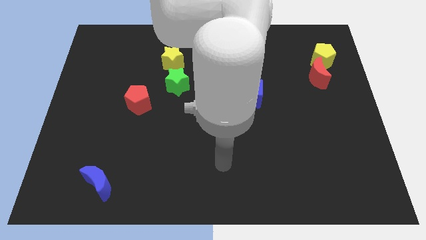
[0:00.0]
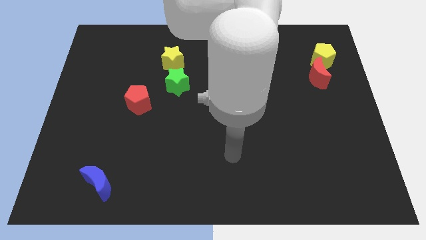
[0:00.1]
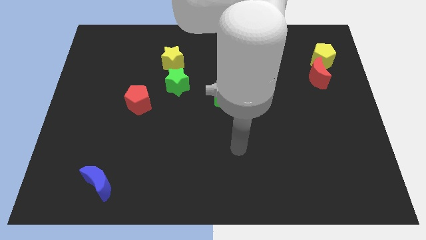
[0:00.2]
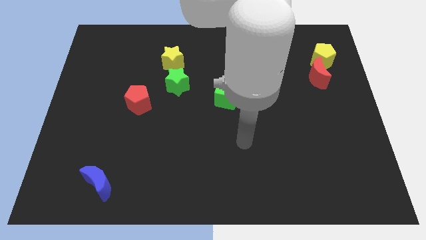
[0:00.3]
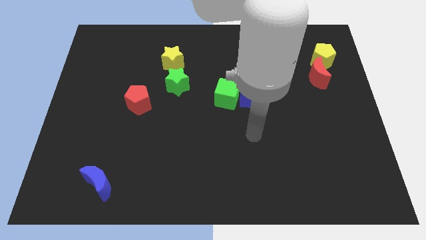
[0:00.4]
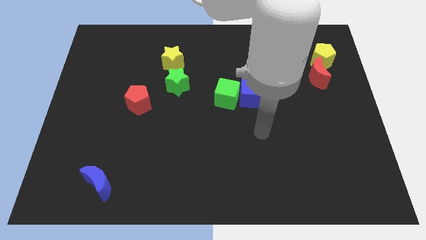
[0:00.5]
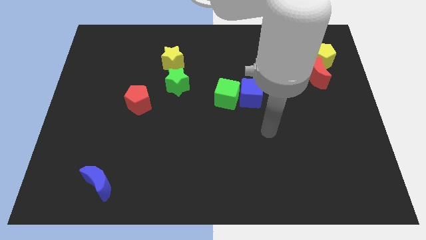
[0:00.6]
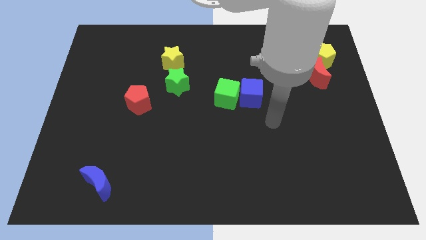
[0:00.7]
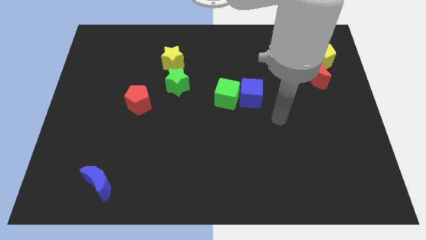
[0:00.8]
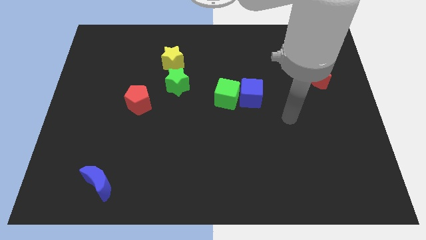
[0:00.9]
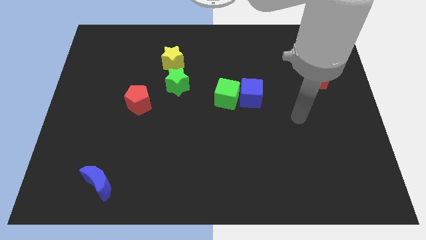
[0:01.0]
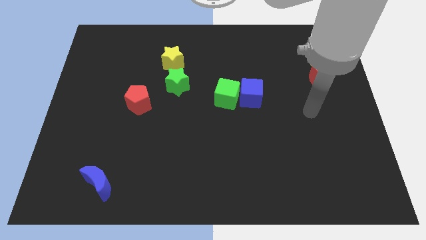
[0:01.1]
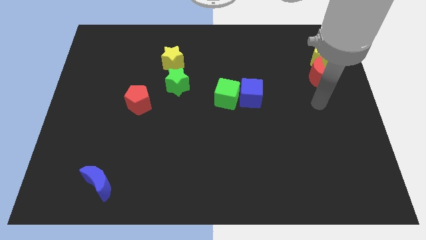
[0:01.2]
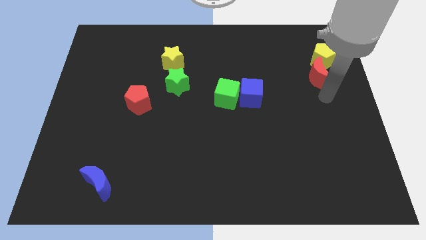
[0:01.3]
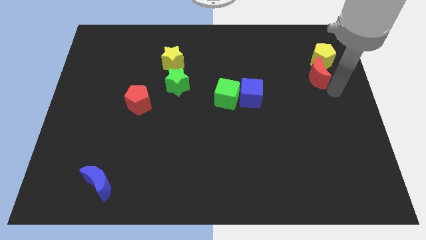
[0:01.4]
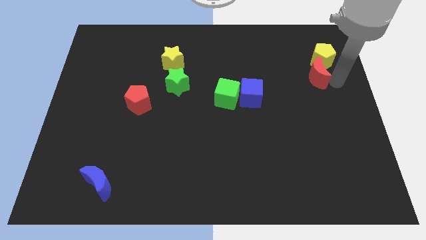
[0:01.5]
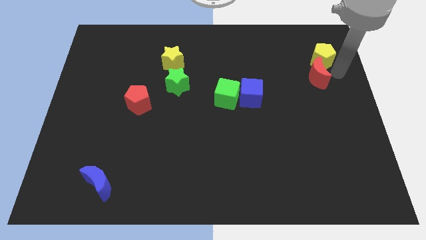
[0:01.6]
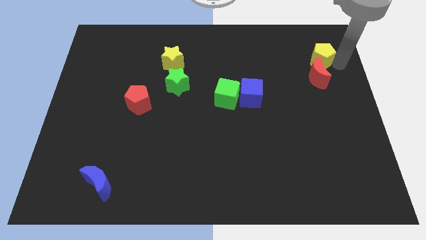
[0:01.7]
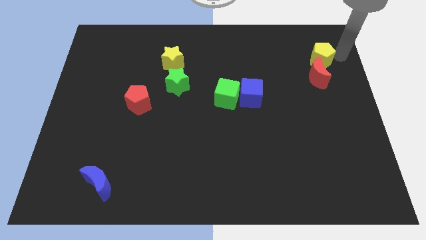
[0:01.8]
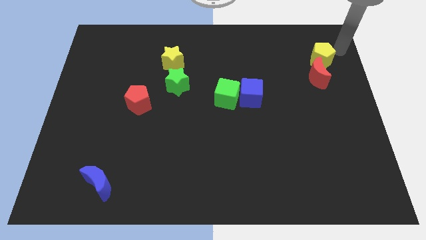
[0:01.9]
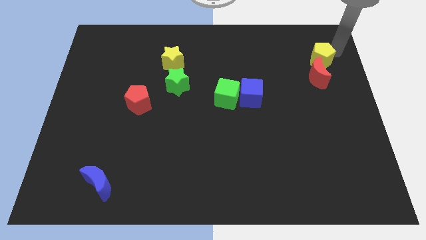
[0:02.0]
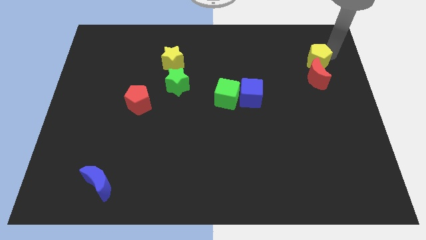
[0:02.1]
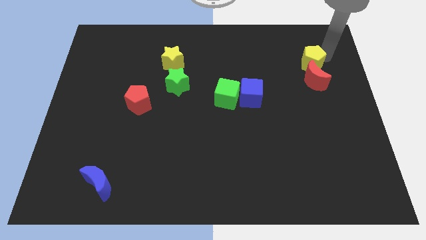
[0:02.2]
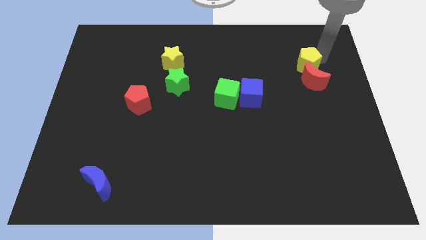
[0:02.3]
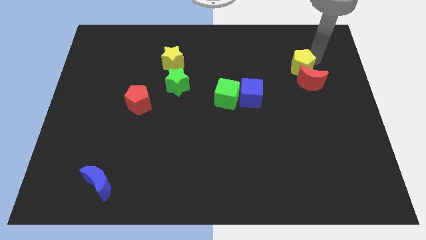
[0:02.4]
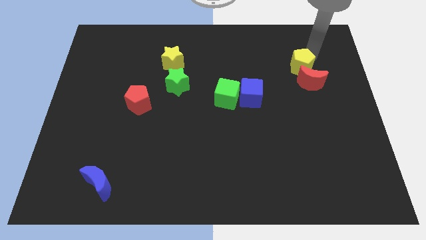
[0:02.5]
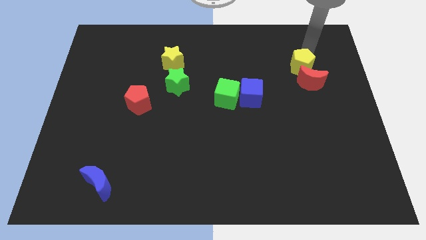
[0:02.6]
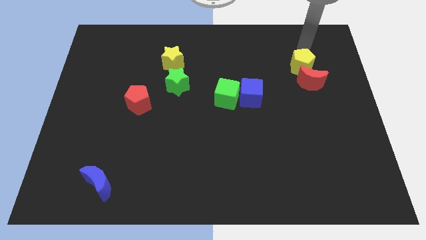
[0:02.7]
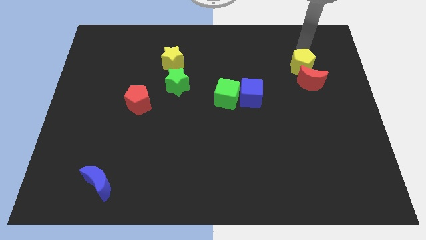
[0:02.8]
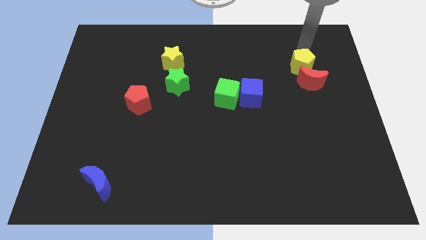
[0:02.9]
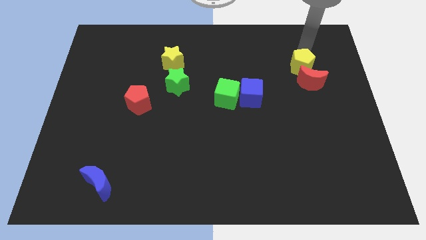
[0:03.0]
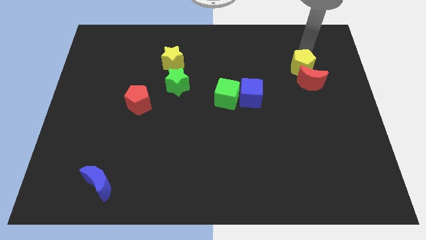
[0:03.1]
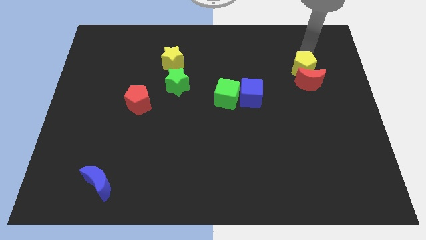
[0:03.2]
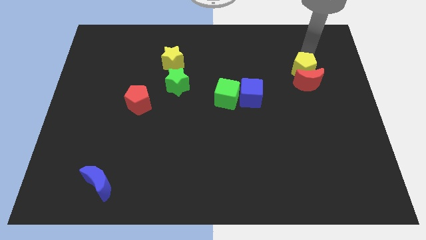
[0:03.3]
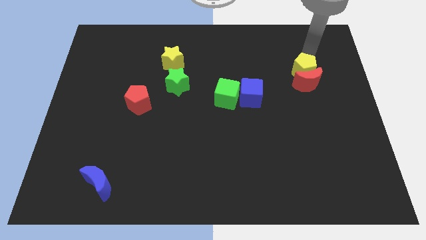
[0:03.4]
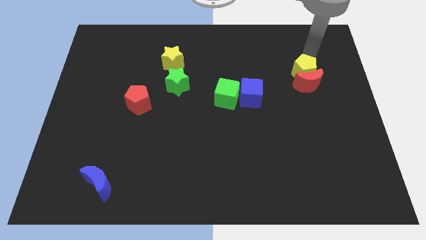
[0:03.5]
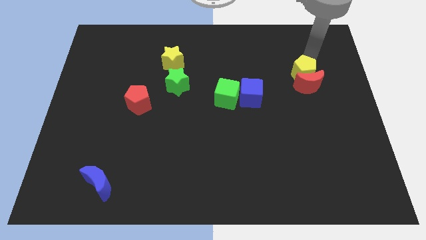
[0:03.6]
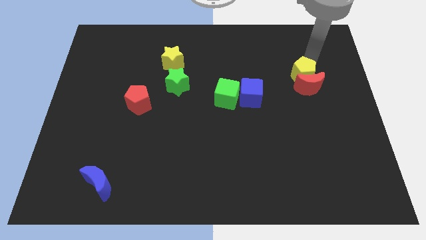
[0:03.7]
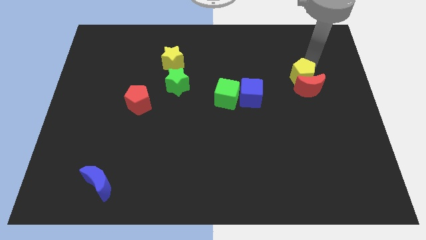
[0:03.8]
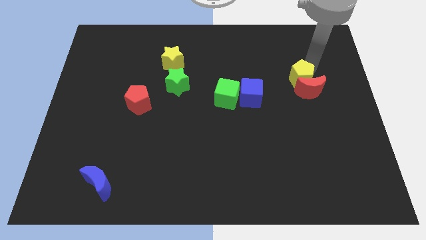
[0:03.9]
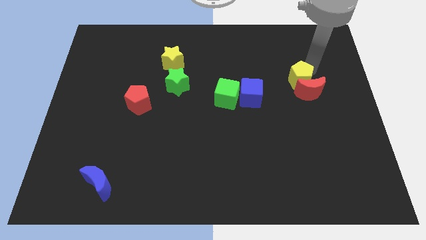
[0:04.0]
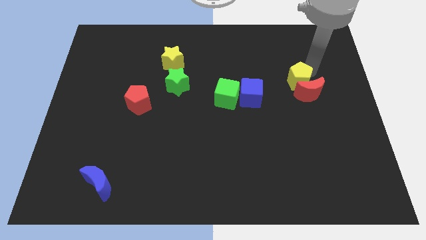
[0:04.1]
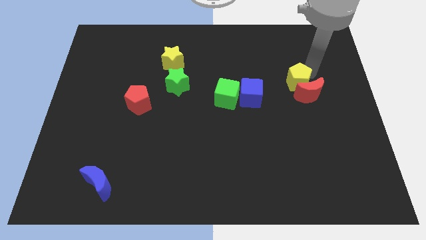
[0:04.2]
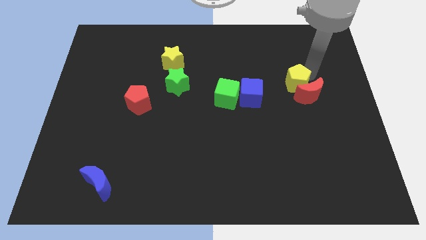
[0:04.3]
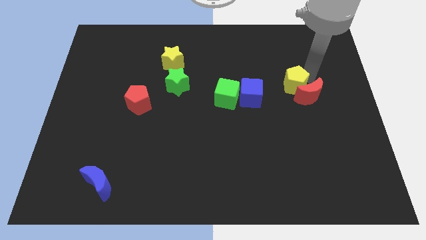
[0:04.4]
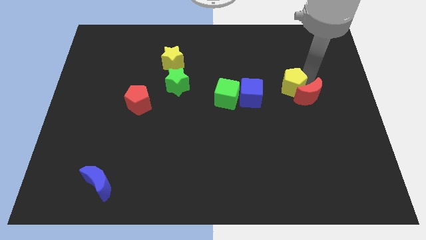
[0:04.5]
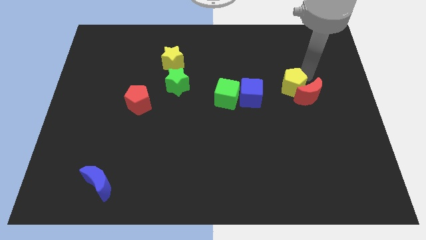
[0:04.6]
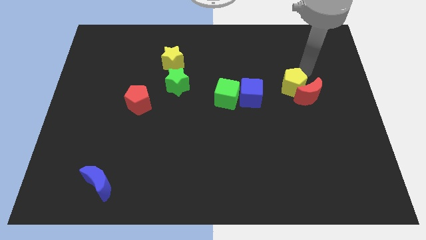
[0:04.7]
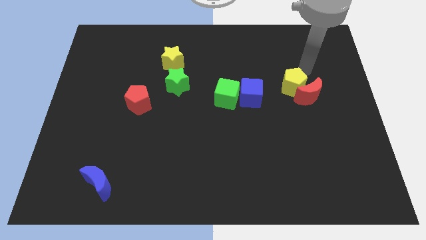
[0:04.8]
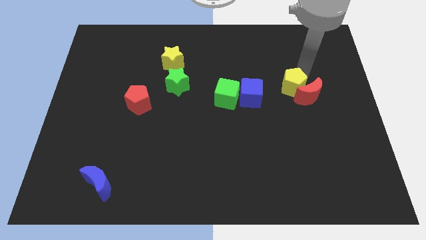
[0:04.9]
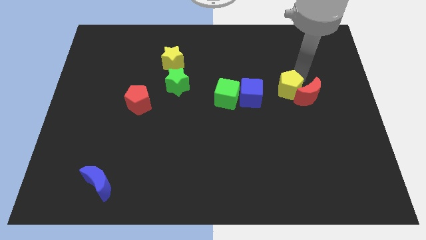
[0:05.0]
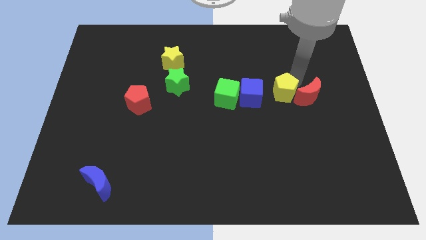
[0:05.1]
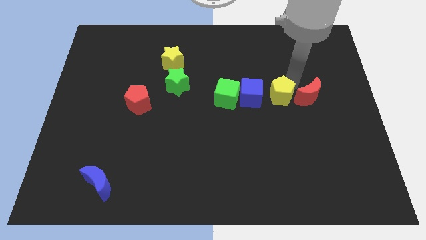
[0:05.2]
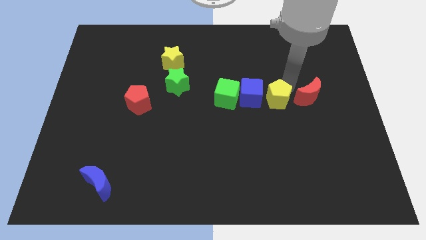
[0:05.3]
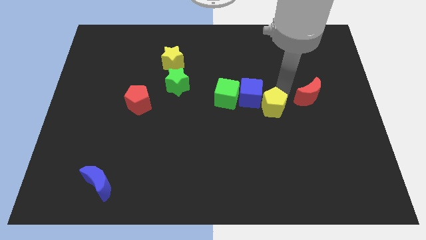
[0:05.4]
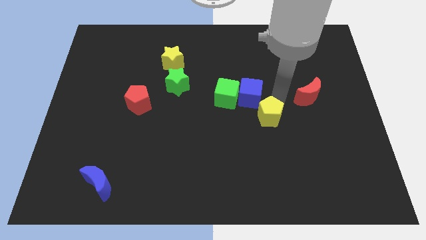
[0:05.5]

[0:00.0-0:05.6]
slide the yellow pentagon below the blue cube

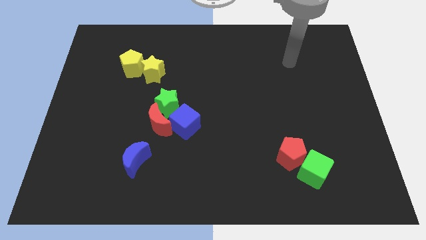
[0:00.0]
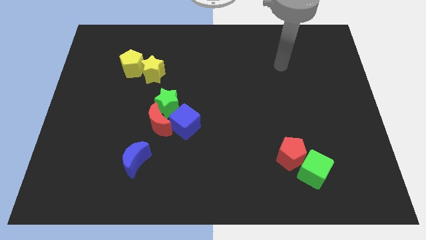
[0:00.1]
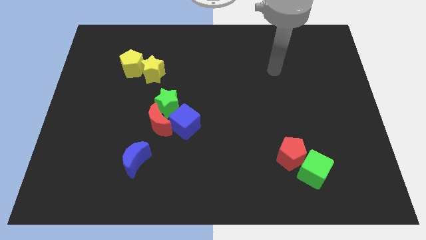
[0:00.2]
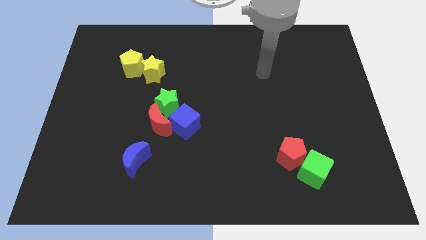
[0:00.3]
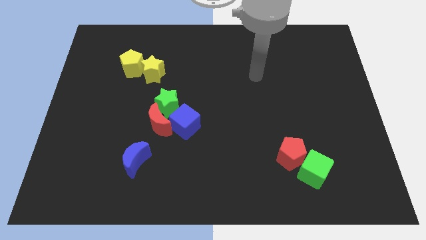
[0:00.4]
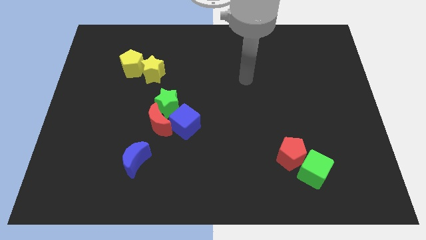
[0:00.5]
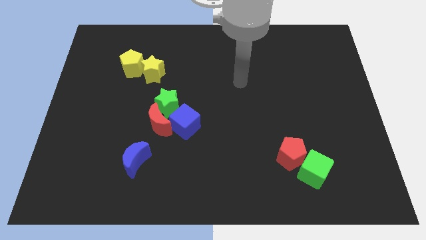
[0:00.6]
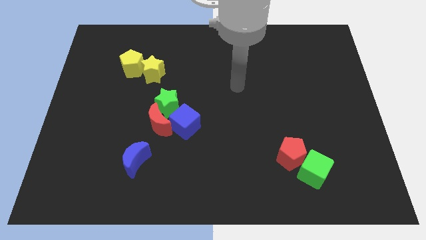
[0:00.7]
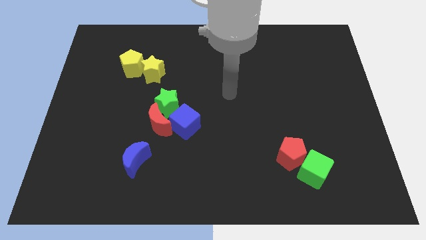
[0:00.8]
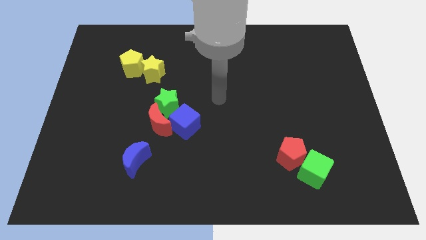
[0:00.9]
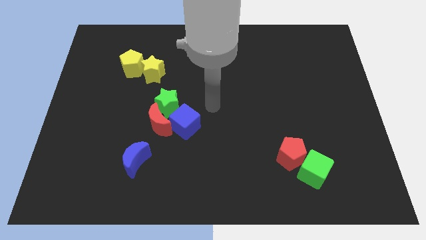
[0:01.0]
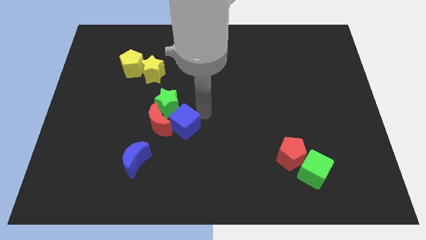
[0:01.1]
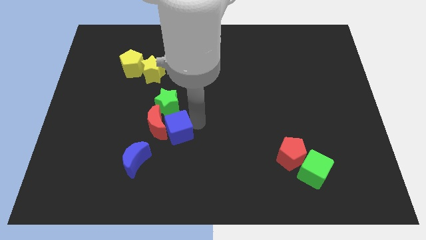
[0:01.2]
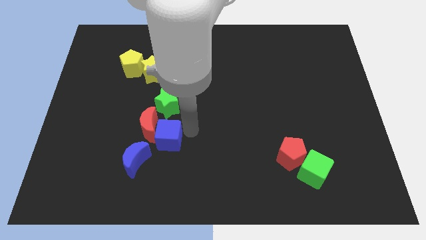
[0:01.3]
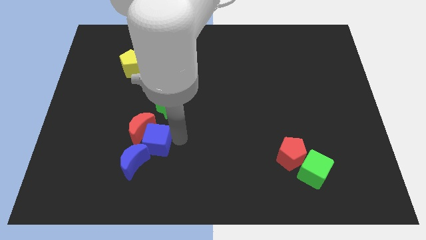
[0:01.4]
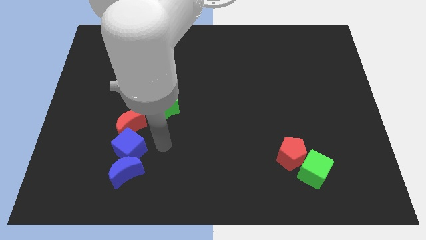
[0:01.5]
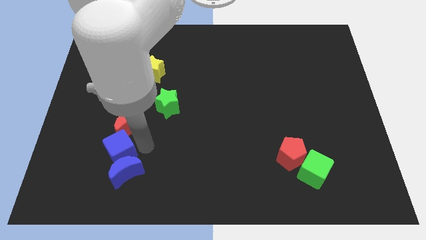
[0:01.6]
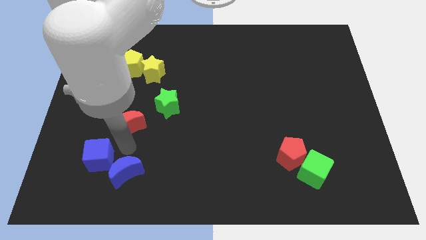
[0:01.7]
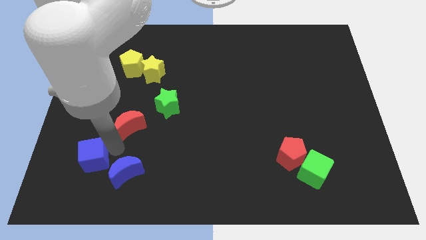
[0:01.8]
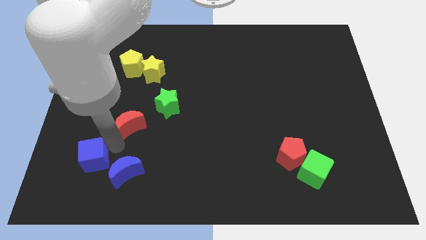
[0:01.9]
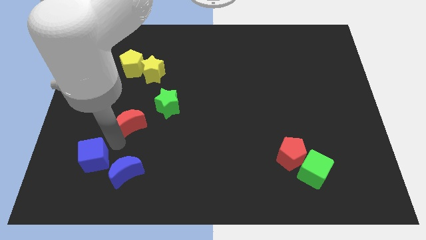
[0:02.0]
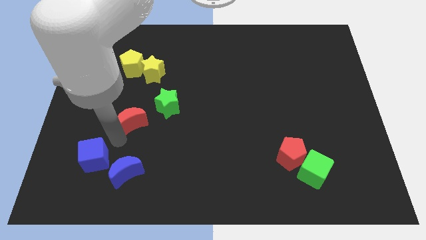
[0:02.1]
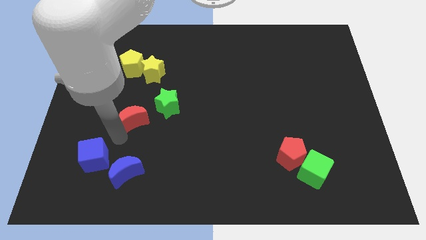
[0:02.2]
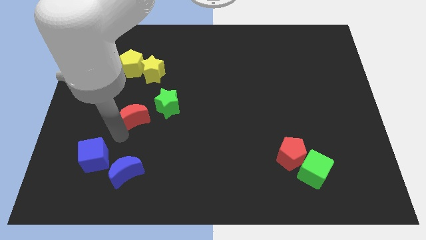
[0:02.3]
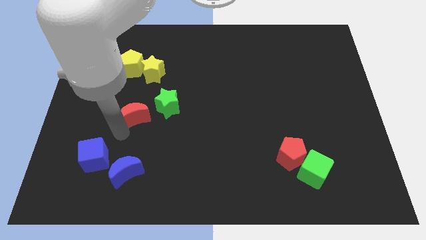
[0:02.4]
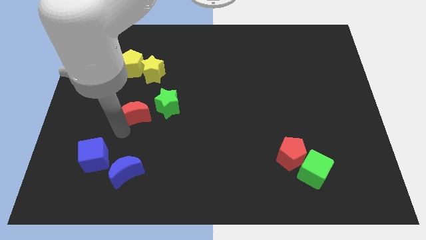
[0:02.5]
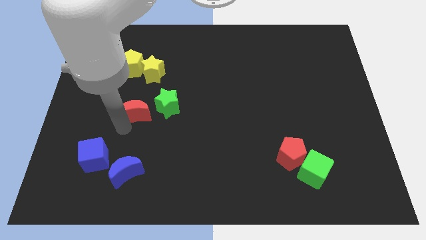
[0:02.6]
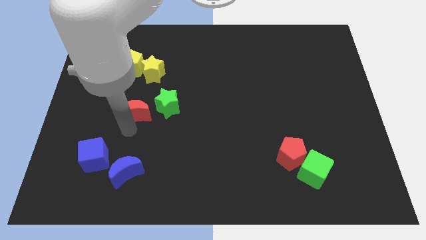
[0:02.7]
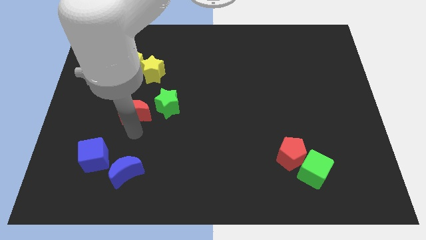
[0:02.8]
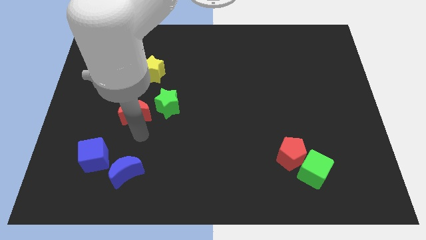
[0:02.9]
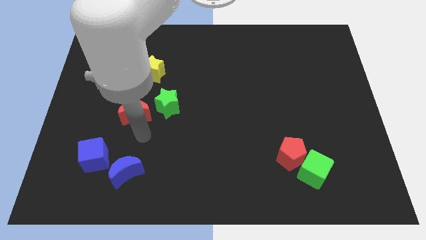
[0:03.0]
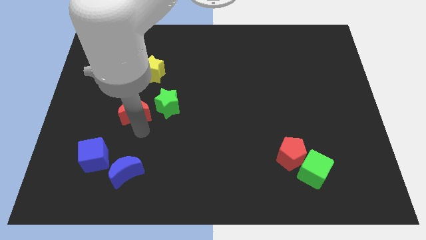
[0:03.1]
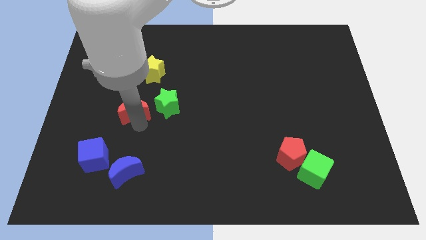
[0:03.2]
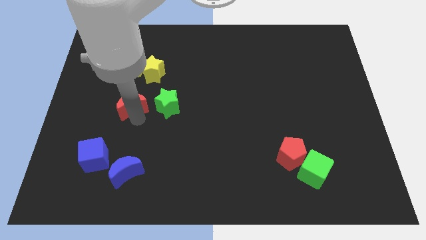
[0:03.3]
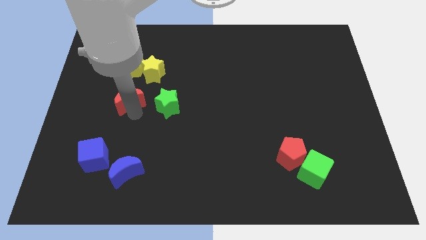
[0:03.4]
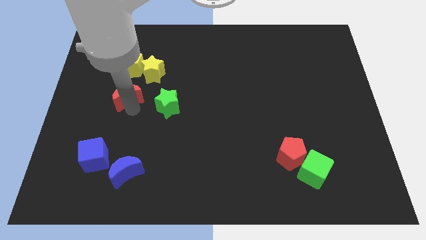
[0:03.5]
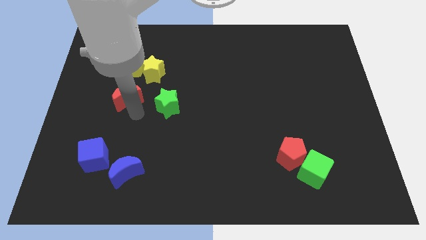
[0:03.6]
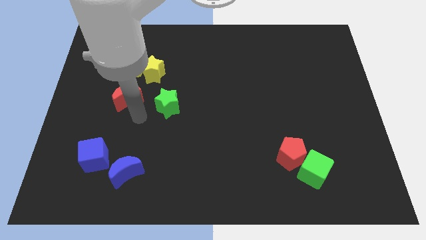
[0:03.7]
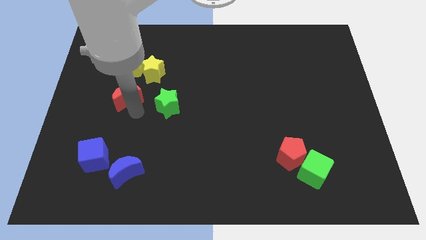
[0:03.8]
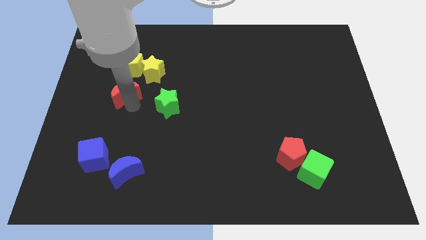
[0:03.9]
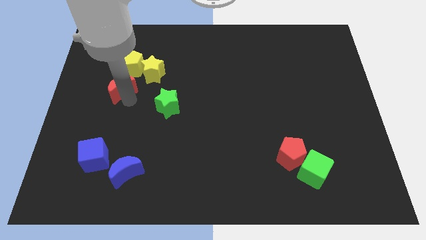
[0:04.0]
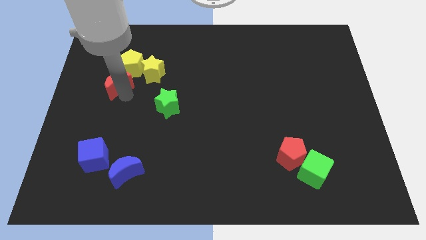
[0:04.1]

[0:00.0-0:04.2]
slide the red moon to the left of the yellow star
